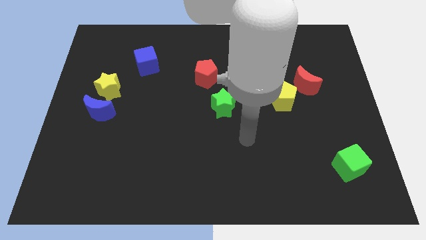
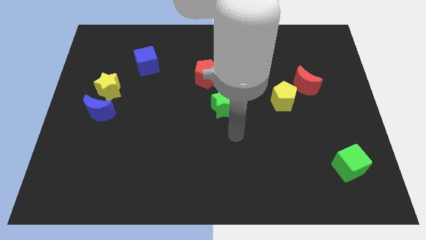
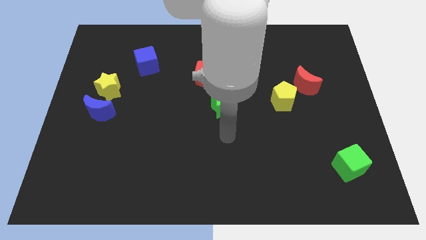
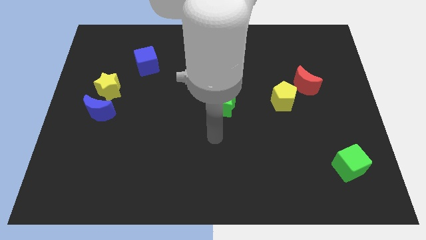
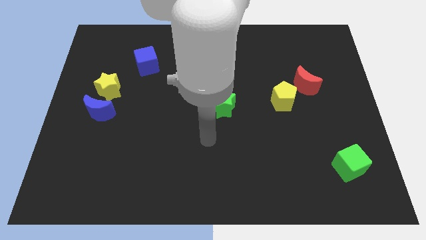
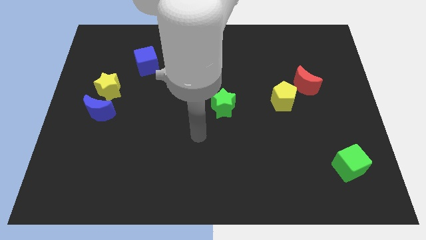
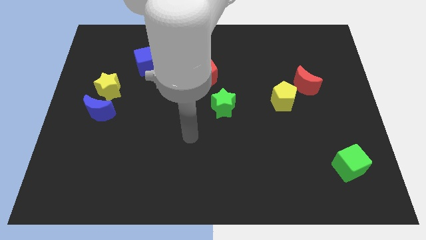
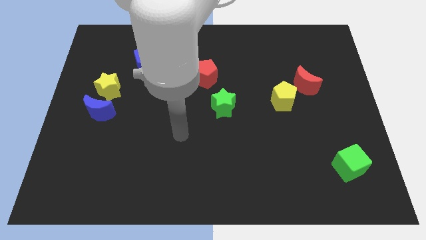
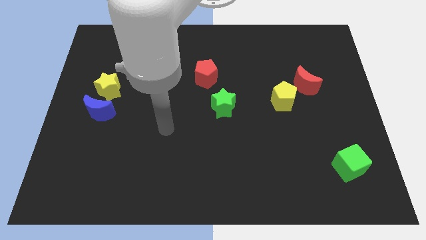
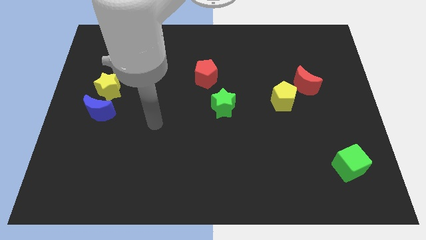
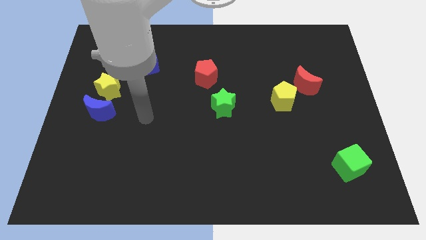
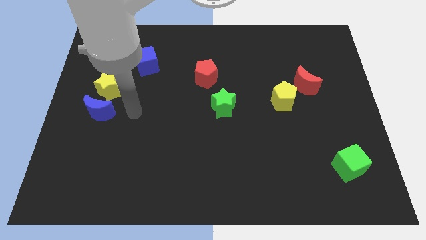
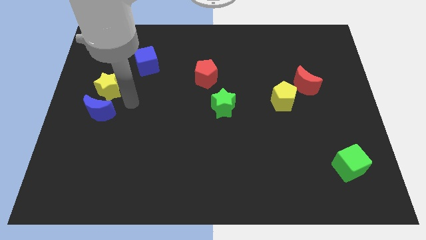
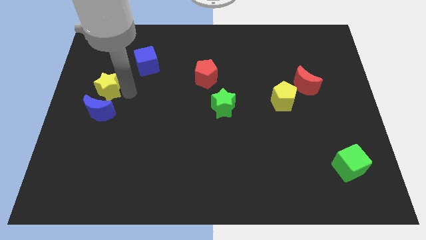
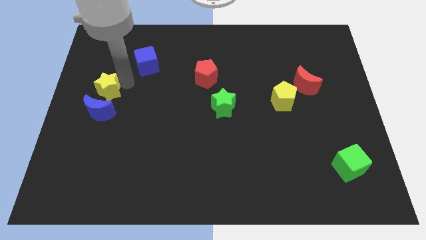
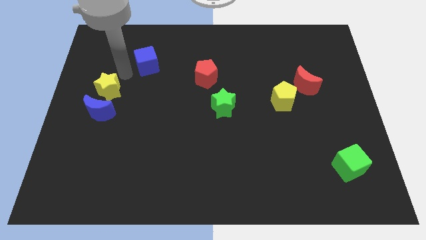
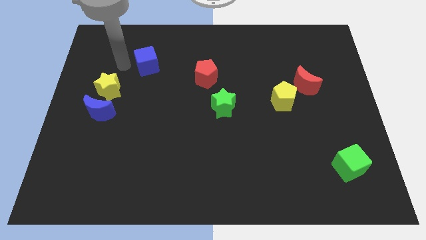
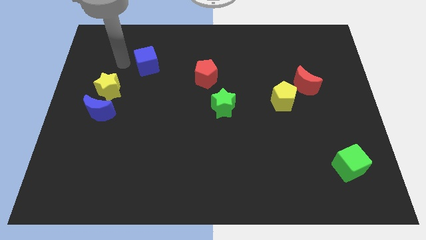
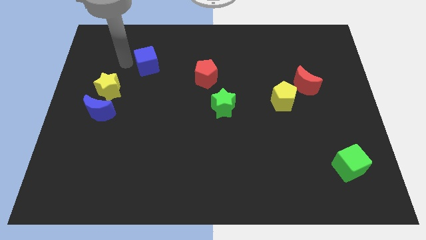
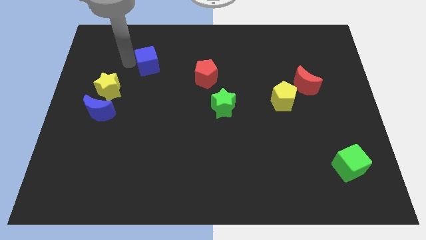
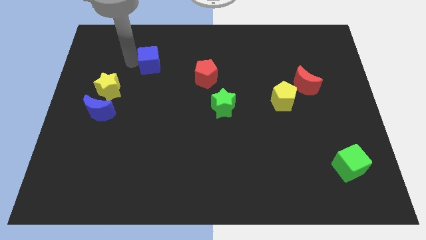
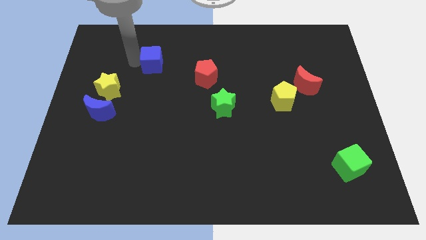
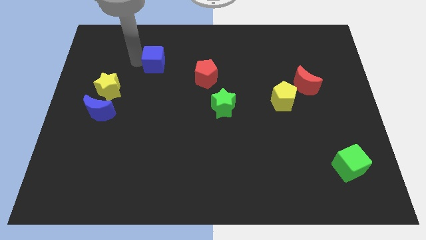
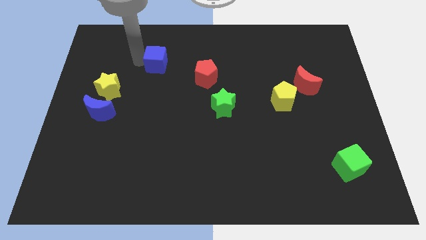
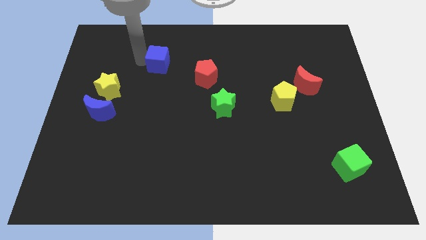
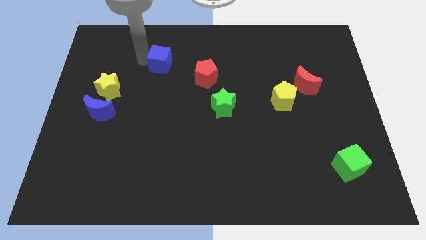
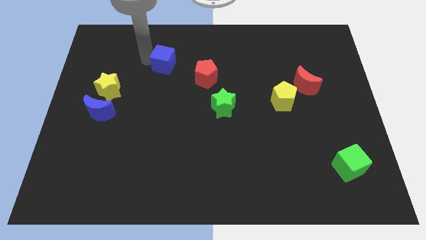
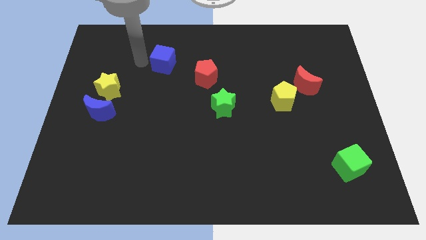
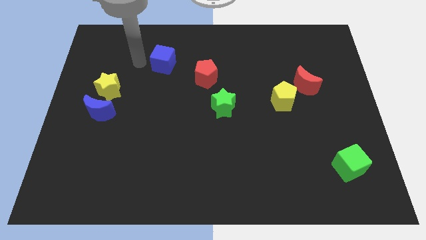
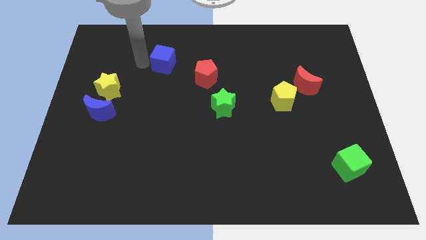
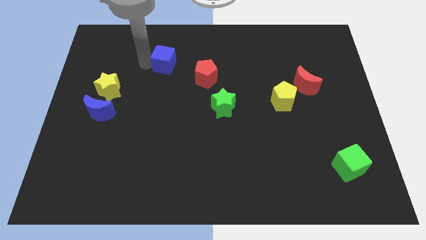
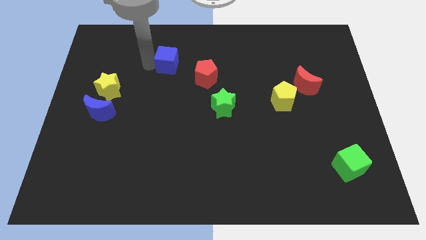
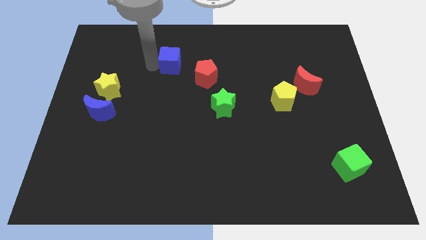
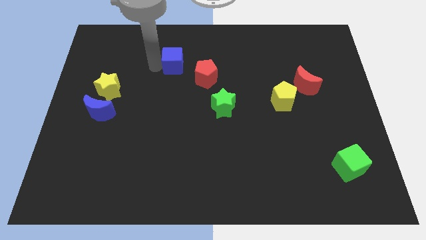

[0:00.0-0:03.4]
push the blue cube to the right a bit

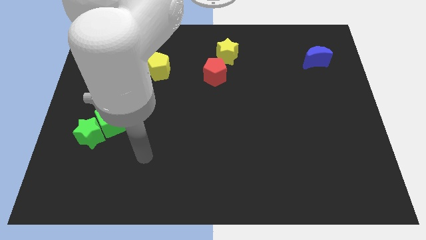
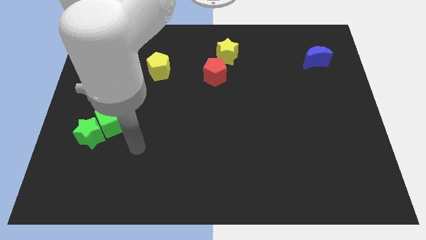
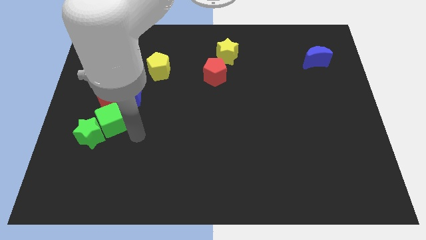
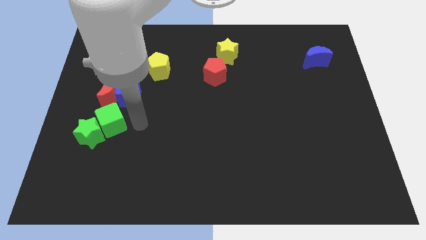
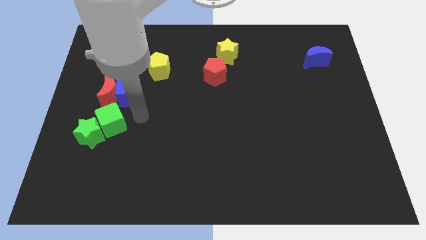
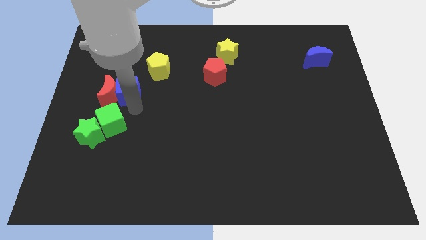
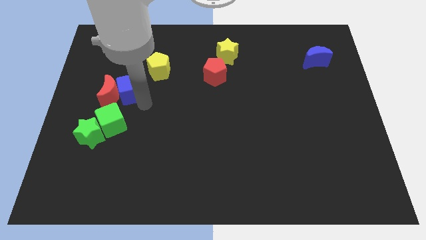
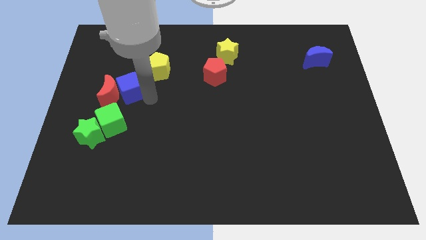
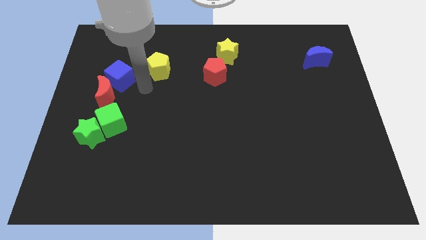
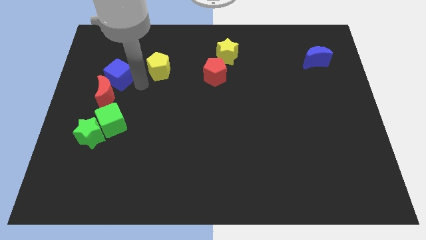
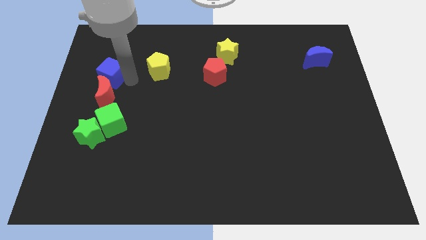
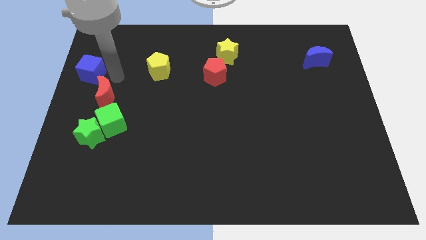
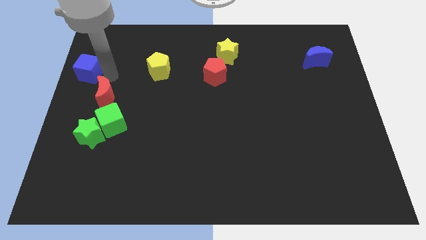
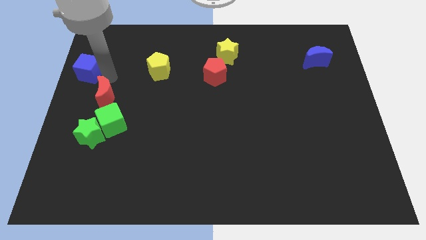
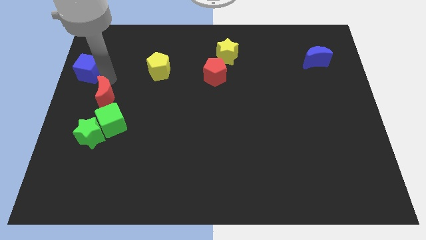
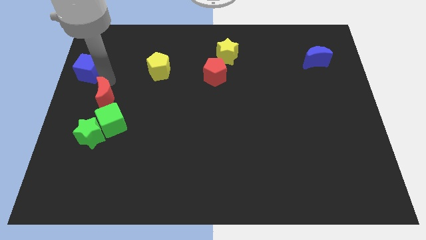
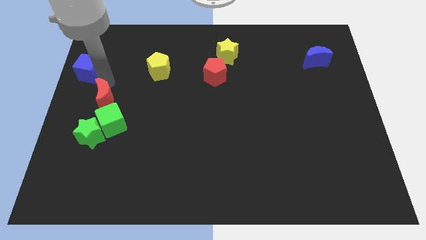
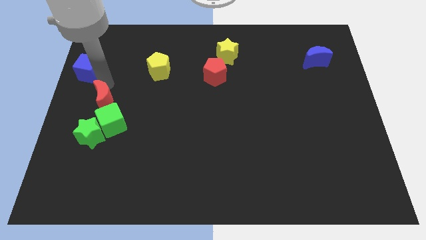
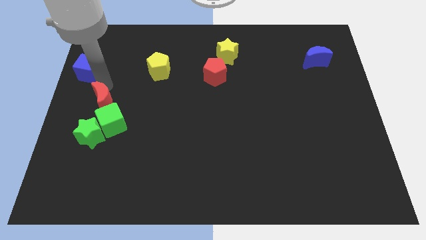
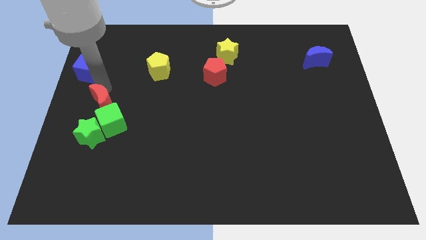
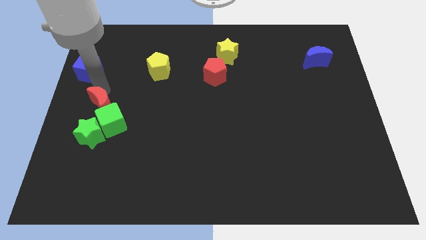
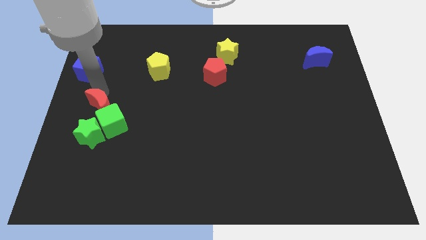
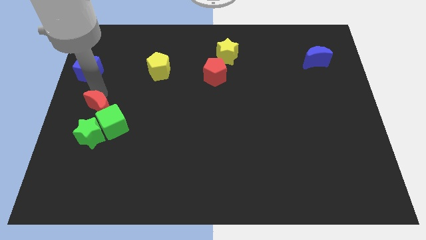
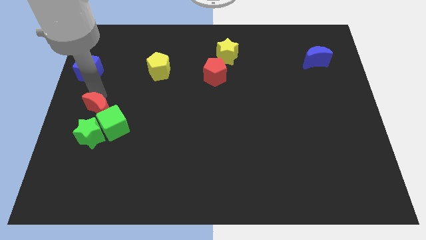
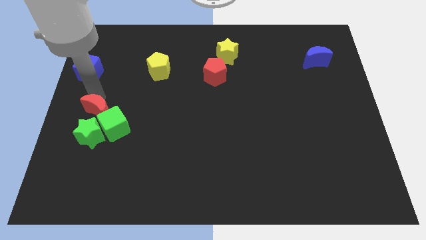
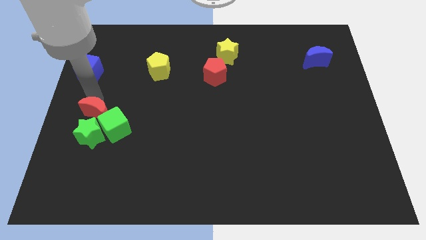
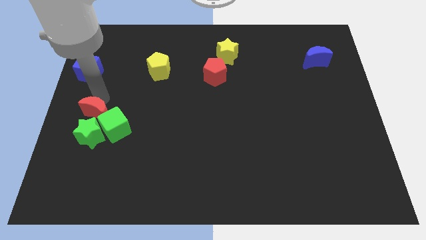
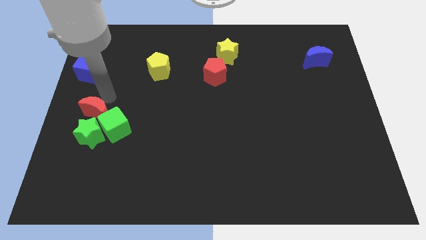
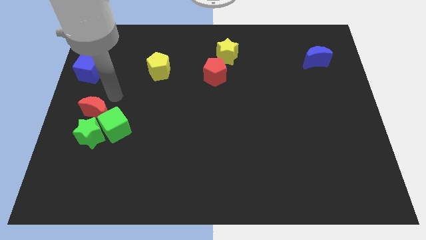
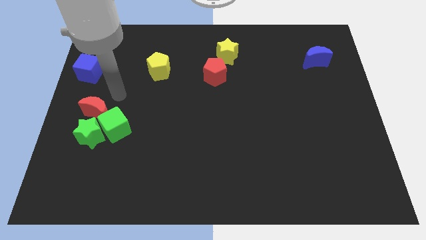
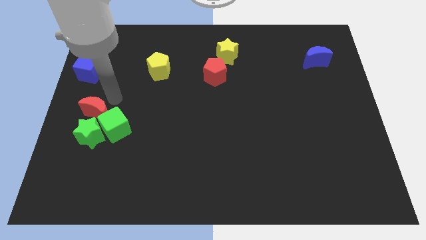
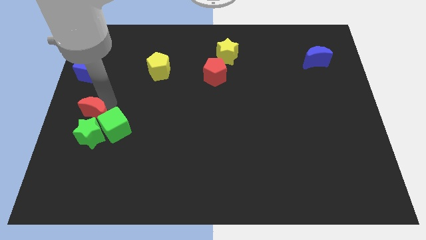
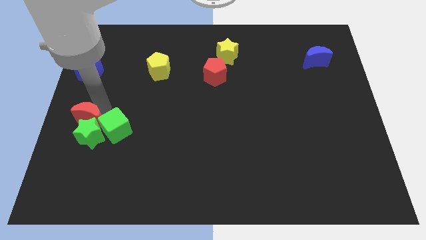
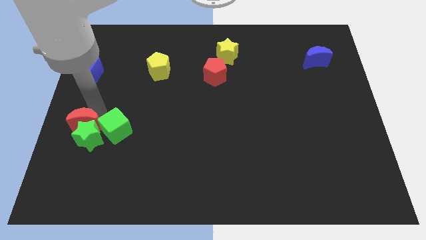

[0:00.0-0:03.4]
move the red moon a little bit down

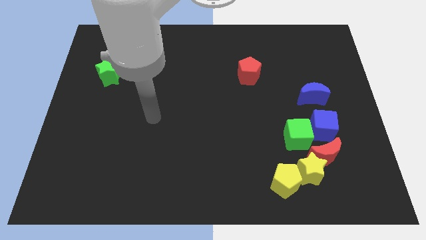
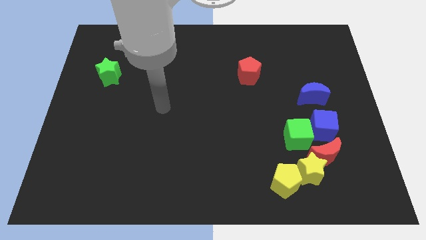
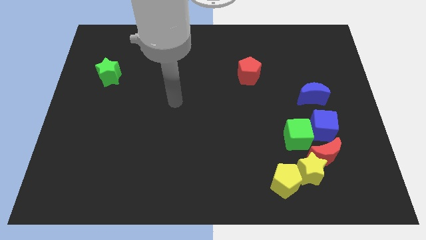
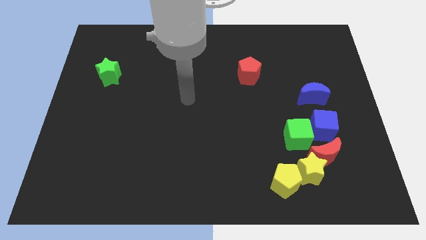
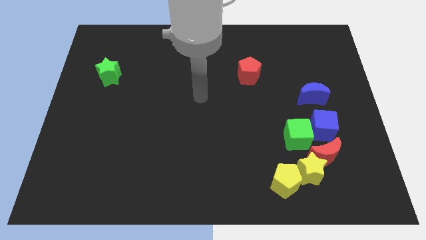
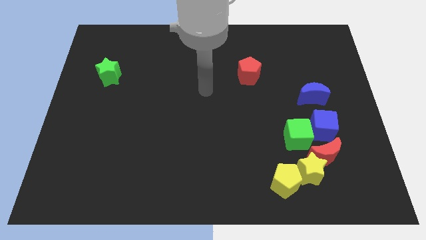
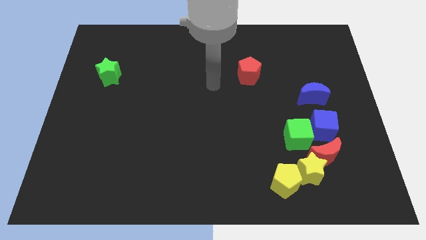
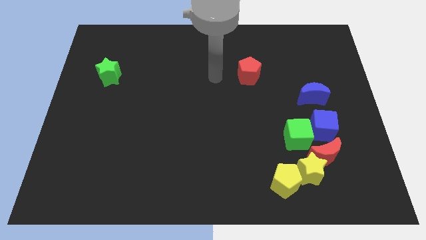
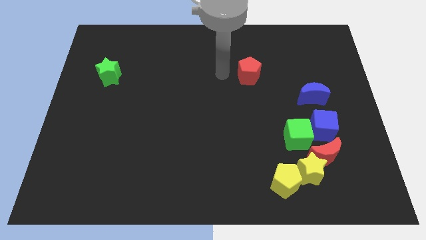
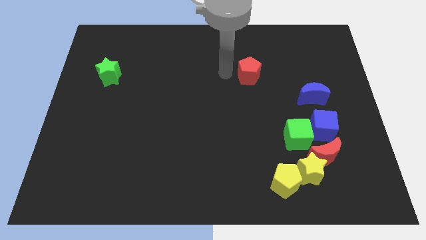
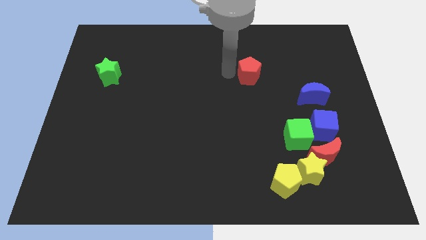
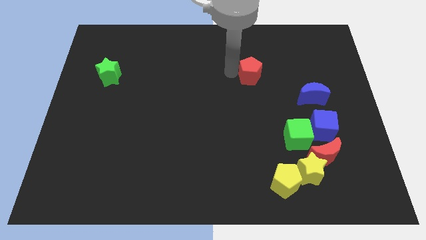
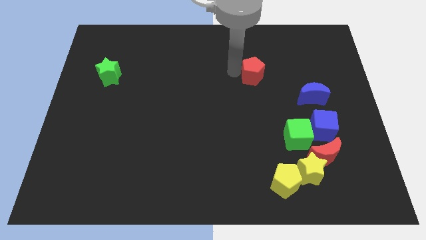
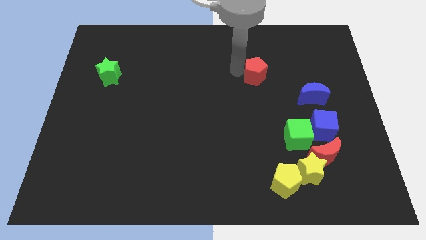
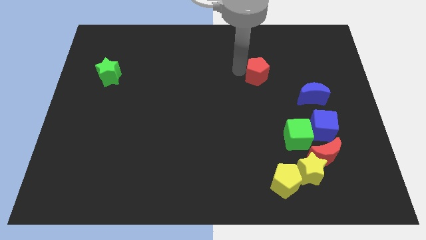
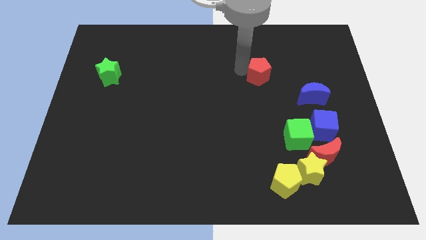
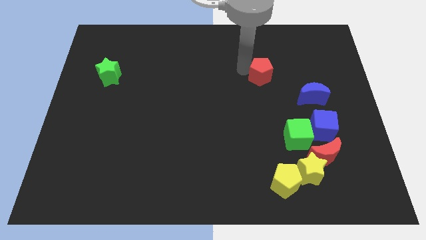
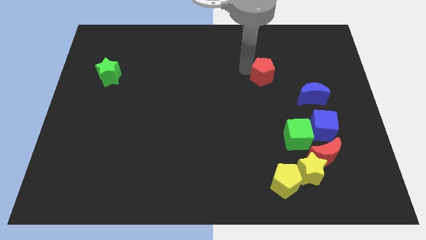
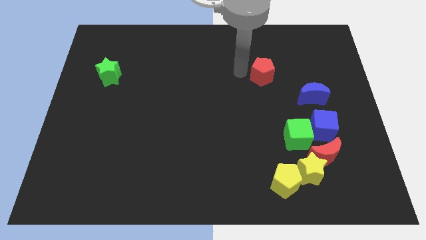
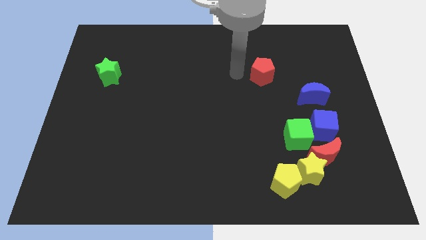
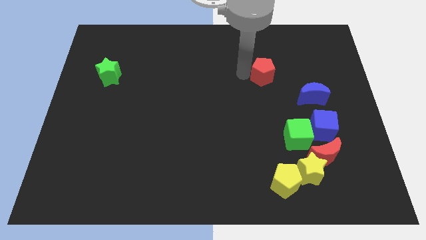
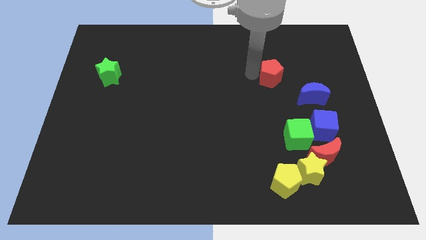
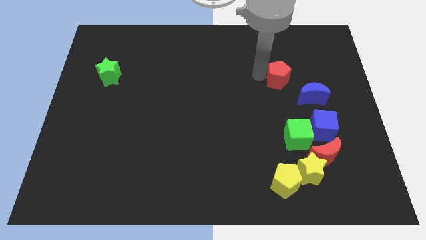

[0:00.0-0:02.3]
slide the red pentagon to the right a little
